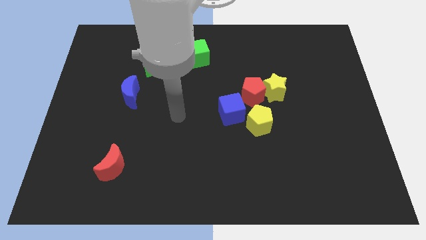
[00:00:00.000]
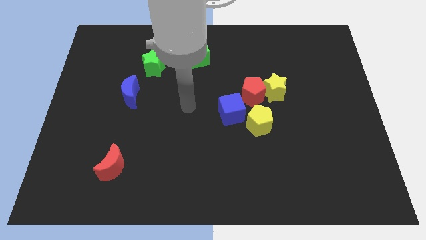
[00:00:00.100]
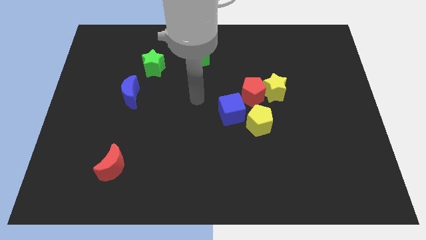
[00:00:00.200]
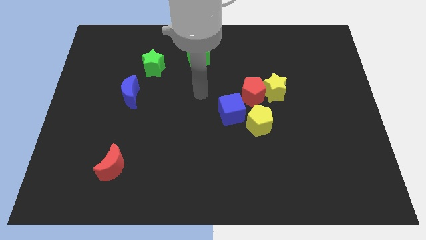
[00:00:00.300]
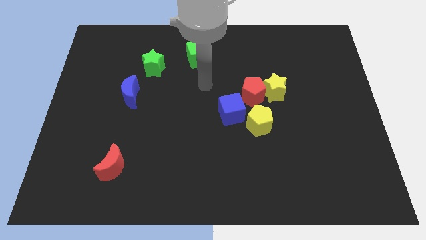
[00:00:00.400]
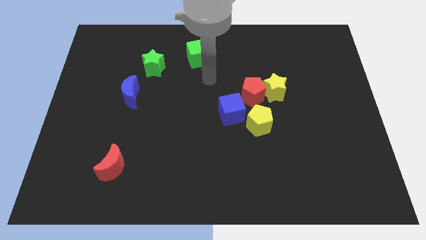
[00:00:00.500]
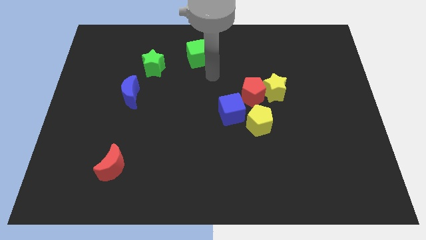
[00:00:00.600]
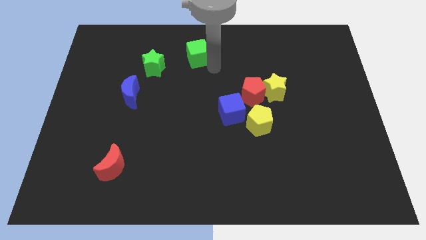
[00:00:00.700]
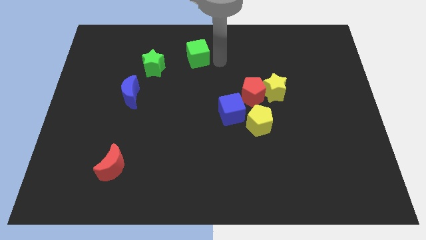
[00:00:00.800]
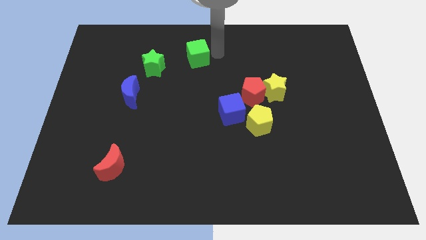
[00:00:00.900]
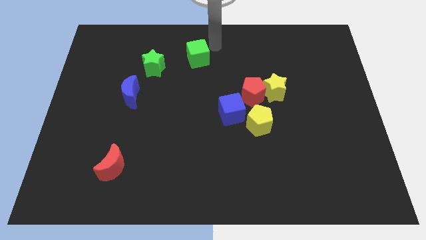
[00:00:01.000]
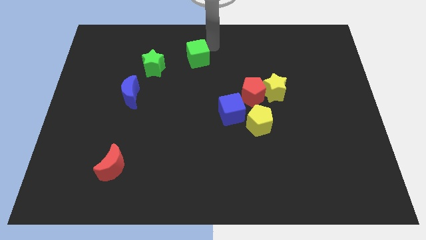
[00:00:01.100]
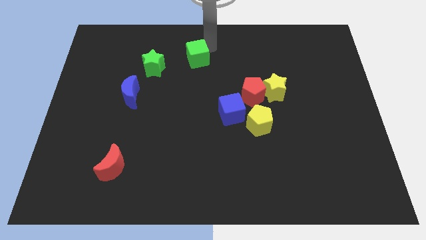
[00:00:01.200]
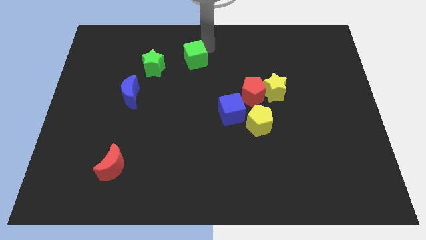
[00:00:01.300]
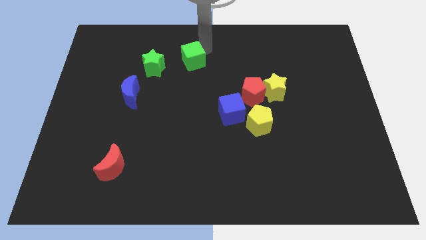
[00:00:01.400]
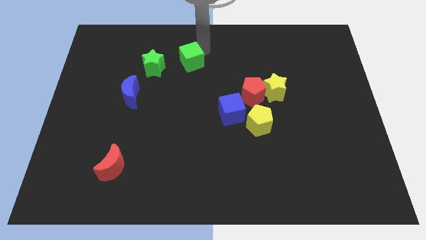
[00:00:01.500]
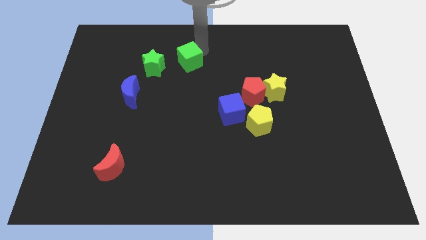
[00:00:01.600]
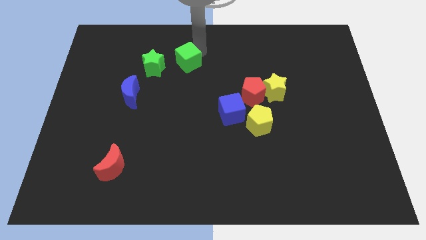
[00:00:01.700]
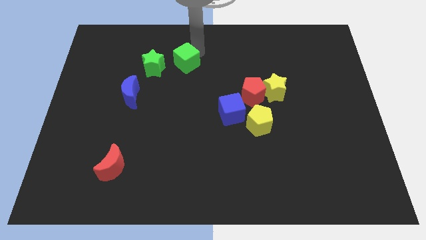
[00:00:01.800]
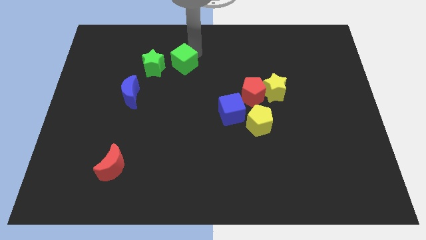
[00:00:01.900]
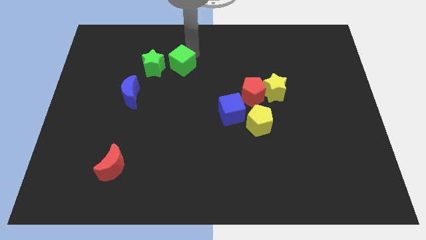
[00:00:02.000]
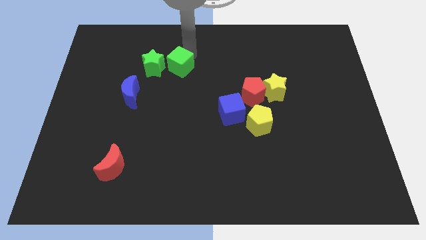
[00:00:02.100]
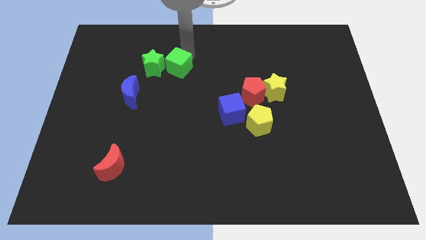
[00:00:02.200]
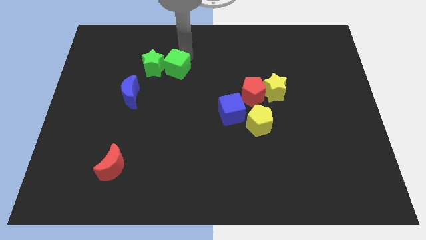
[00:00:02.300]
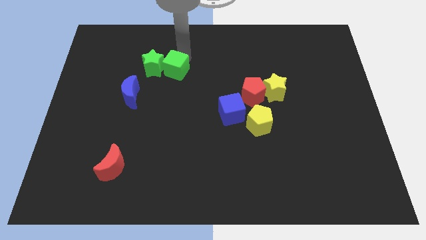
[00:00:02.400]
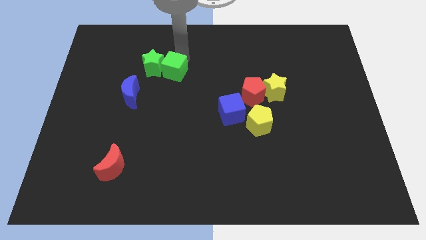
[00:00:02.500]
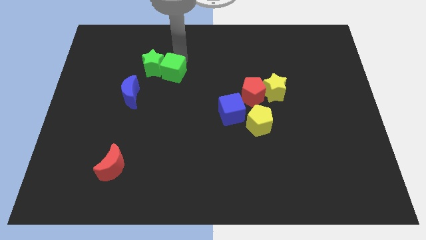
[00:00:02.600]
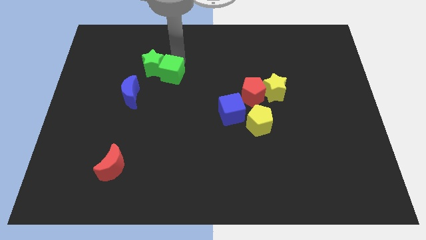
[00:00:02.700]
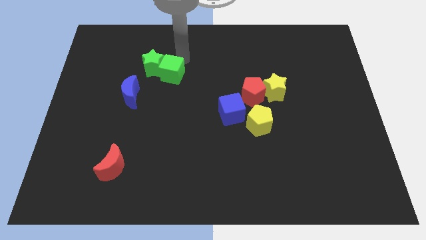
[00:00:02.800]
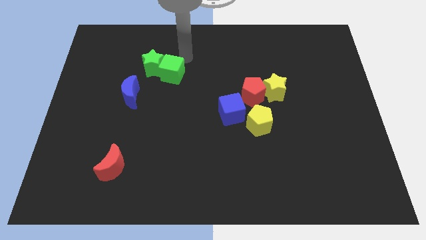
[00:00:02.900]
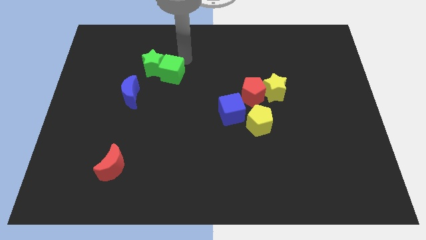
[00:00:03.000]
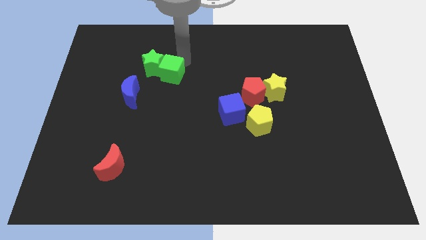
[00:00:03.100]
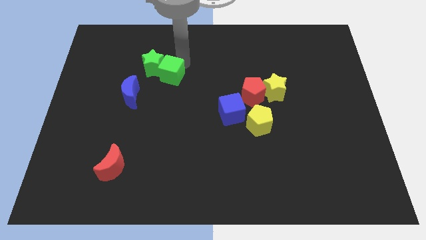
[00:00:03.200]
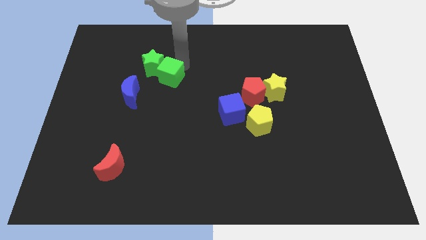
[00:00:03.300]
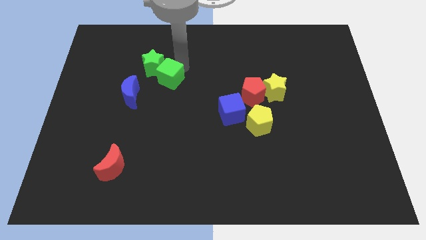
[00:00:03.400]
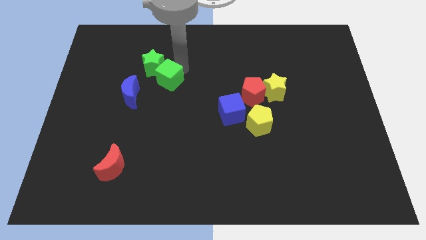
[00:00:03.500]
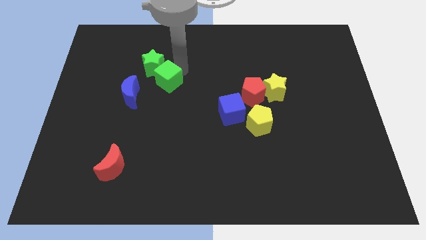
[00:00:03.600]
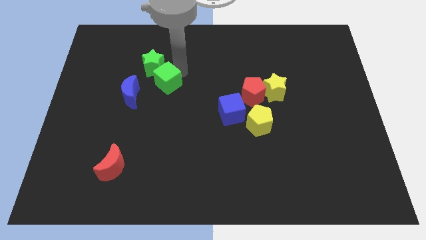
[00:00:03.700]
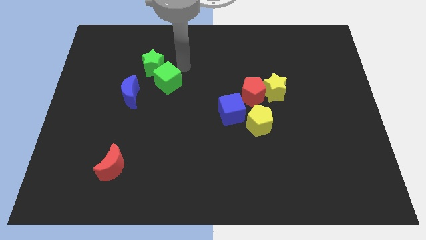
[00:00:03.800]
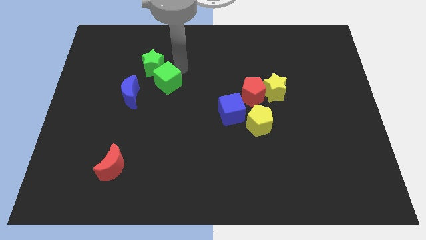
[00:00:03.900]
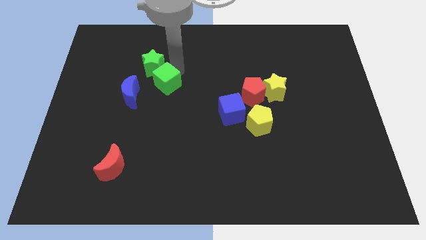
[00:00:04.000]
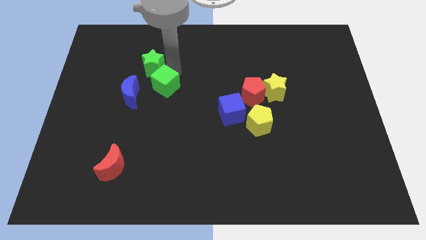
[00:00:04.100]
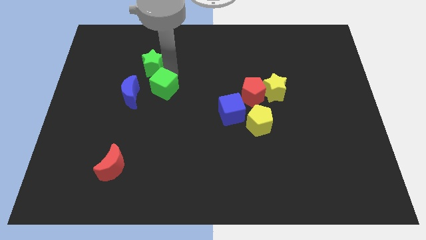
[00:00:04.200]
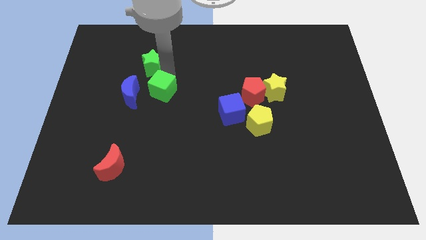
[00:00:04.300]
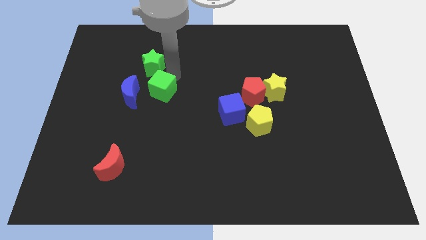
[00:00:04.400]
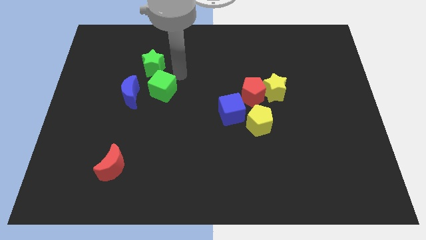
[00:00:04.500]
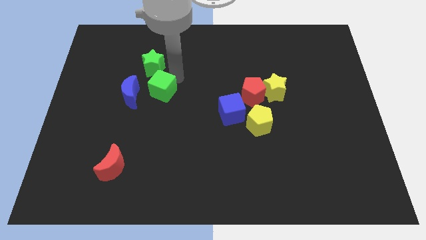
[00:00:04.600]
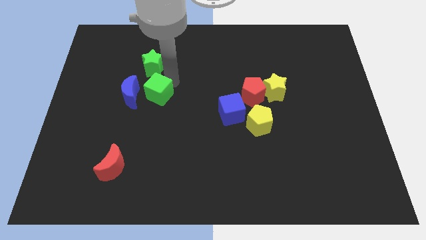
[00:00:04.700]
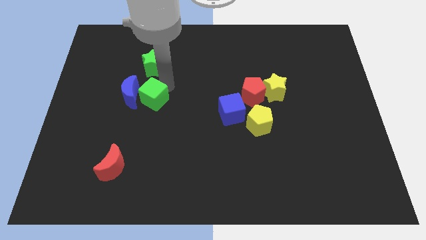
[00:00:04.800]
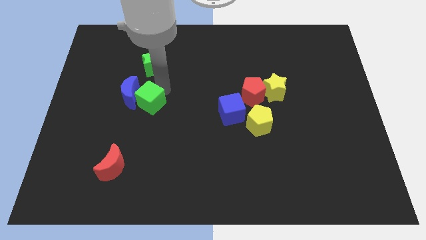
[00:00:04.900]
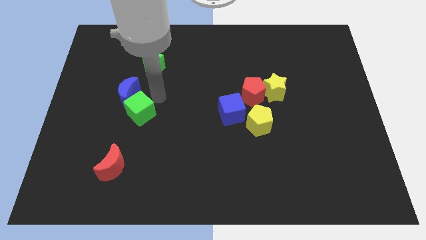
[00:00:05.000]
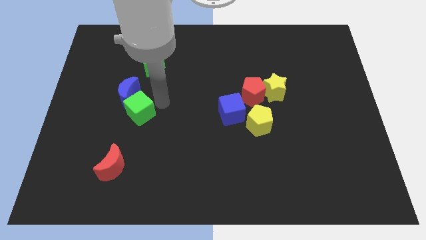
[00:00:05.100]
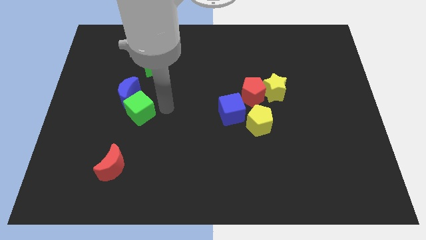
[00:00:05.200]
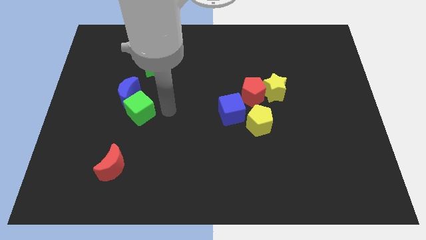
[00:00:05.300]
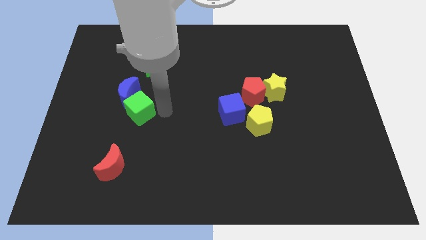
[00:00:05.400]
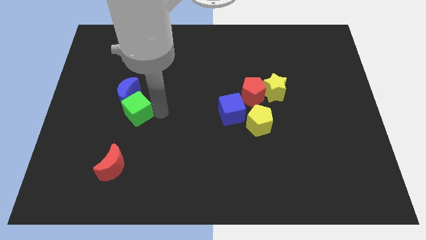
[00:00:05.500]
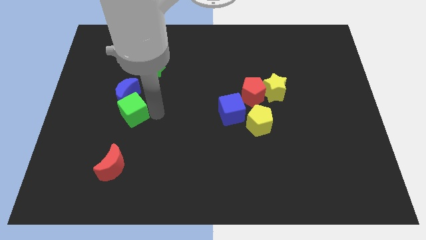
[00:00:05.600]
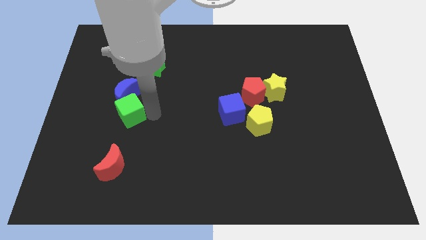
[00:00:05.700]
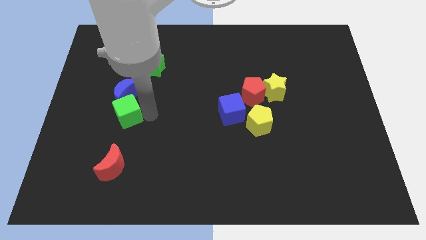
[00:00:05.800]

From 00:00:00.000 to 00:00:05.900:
put the green cube diagonally down and to the left of the blue moon

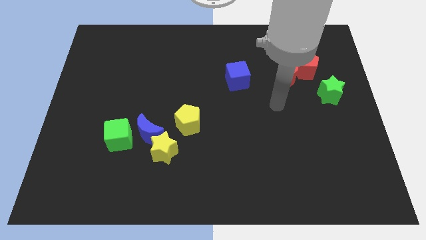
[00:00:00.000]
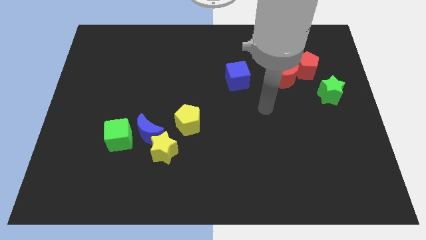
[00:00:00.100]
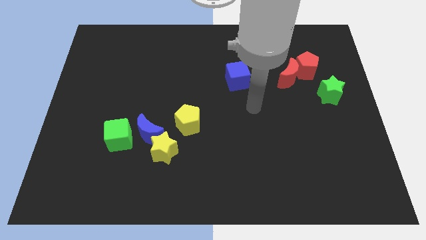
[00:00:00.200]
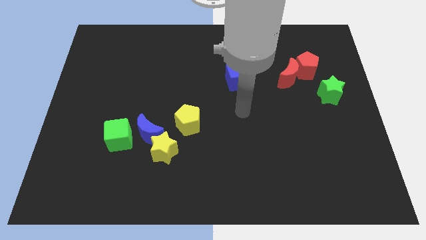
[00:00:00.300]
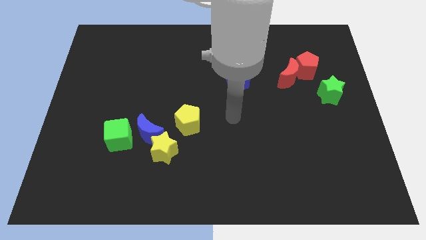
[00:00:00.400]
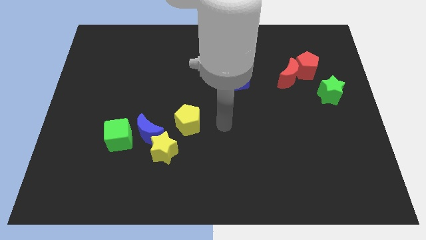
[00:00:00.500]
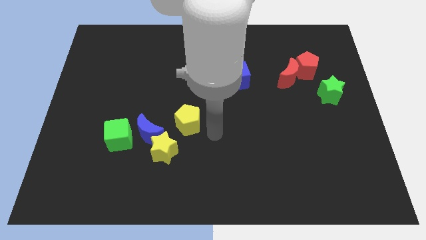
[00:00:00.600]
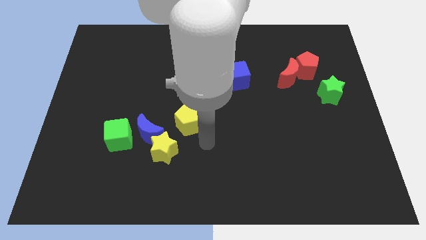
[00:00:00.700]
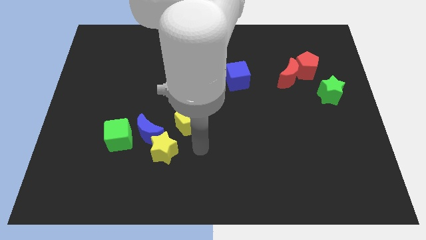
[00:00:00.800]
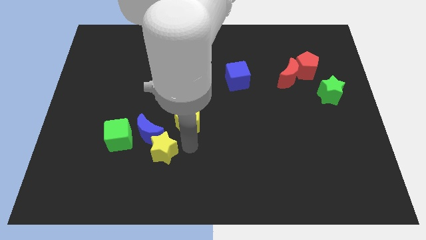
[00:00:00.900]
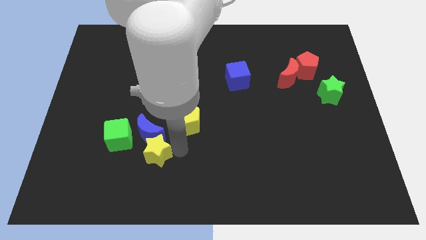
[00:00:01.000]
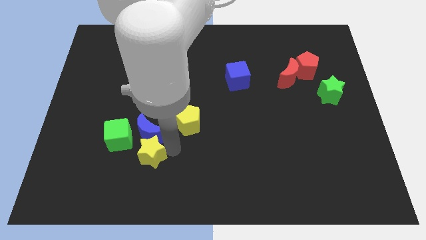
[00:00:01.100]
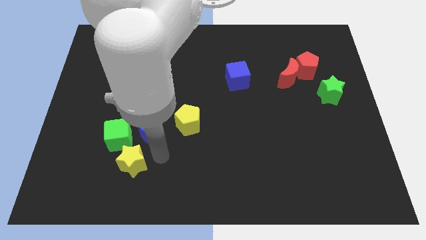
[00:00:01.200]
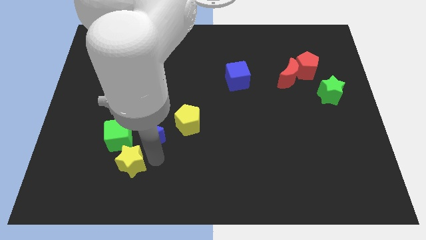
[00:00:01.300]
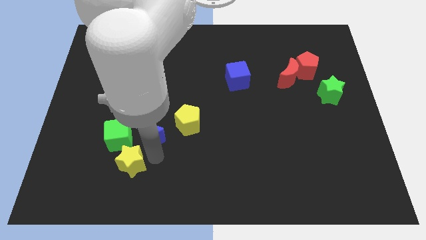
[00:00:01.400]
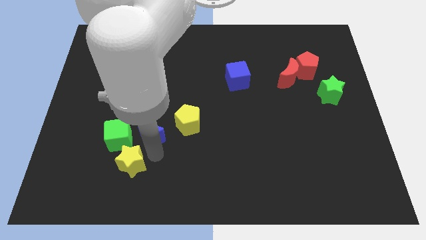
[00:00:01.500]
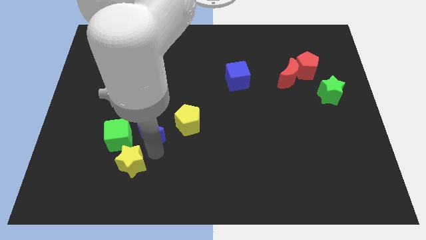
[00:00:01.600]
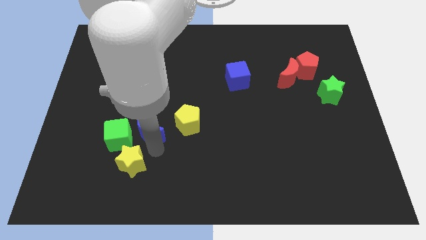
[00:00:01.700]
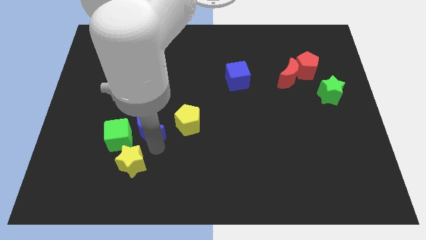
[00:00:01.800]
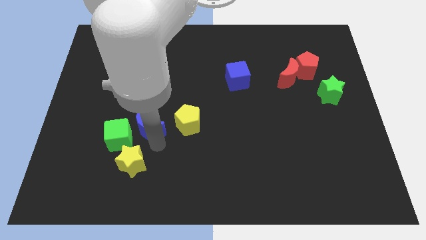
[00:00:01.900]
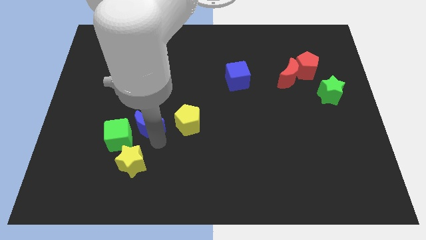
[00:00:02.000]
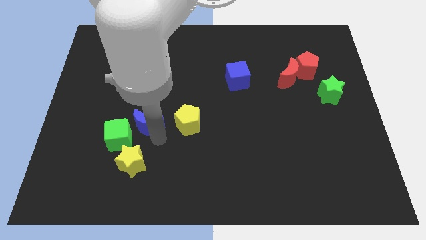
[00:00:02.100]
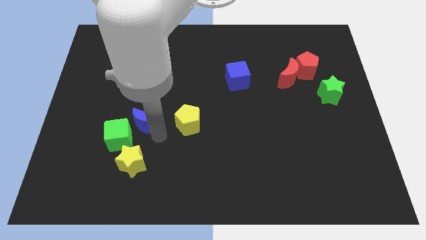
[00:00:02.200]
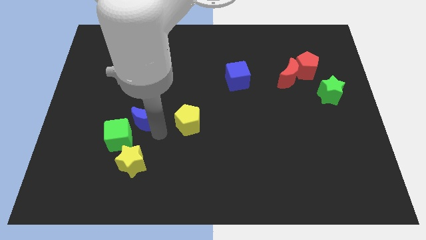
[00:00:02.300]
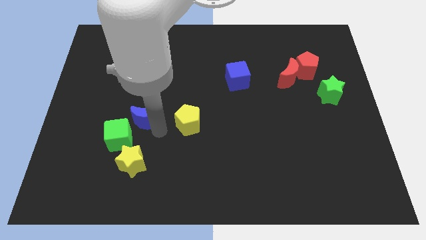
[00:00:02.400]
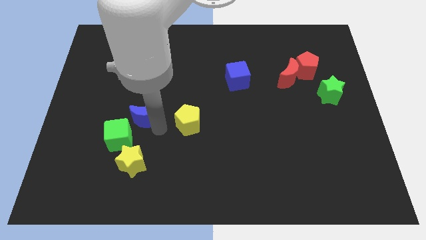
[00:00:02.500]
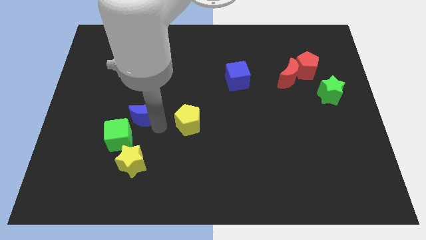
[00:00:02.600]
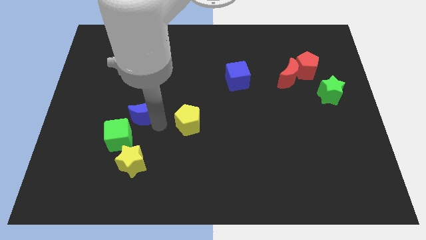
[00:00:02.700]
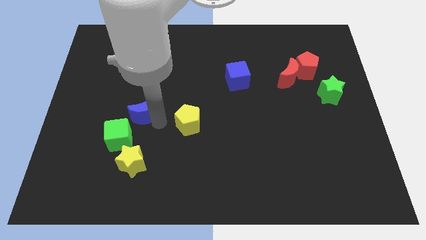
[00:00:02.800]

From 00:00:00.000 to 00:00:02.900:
move the blue moon to the top side of the green cube
